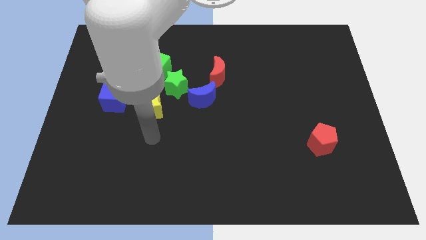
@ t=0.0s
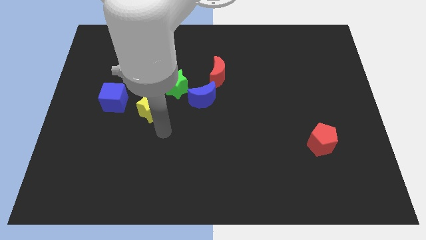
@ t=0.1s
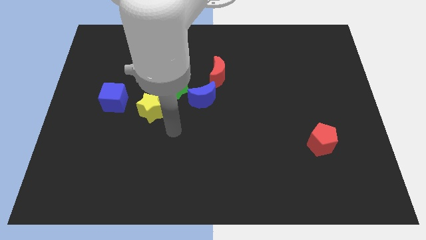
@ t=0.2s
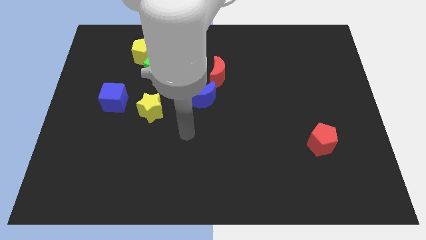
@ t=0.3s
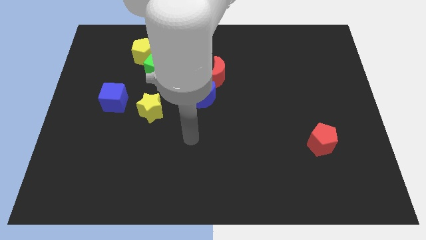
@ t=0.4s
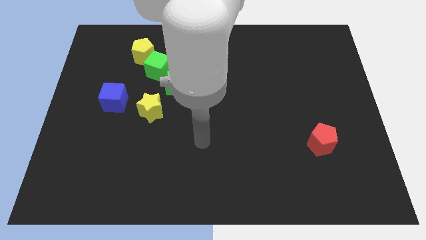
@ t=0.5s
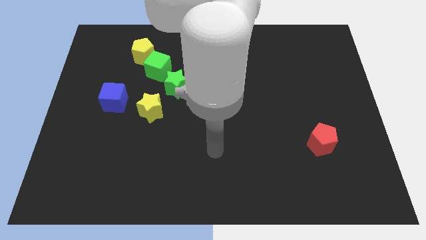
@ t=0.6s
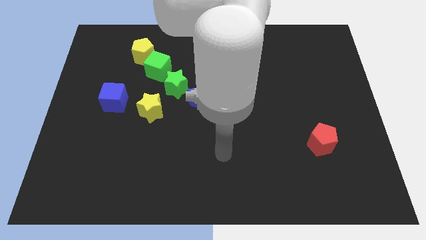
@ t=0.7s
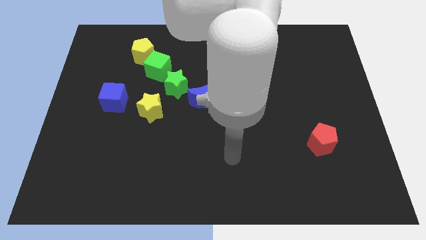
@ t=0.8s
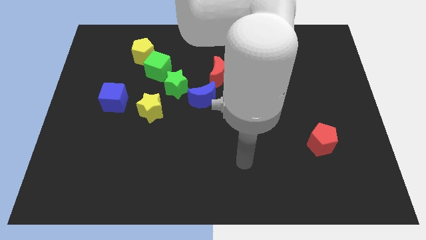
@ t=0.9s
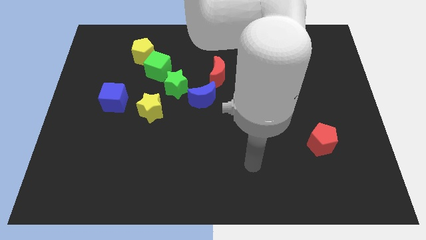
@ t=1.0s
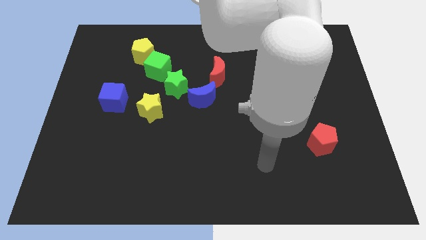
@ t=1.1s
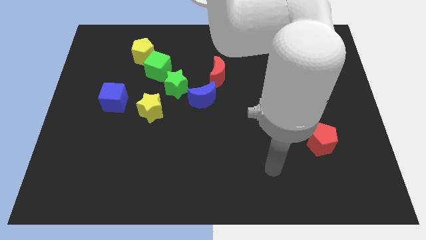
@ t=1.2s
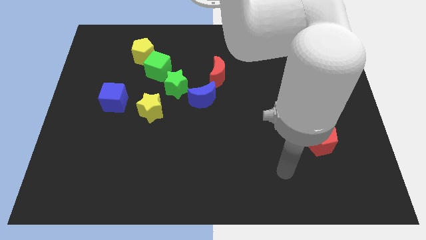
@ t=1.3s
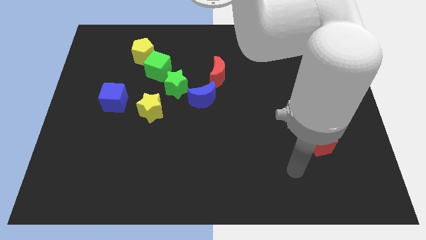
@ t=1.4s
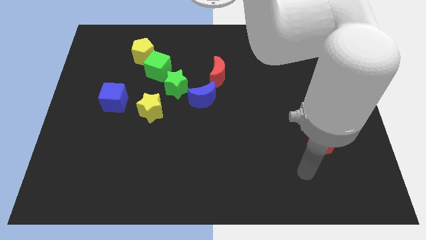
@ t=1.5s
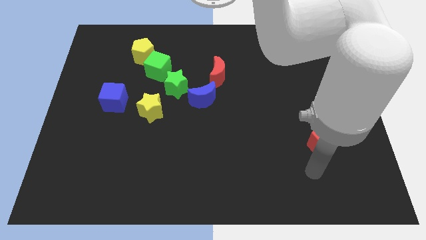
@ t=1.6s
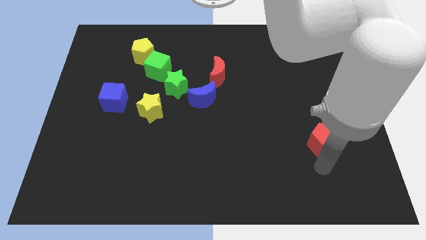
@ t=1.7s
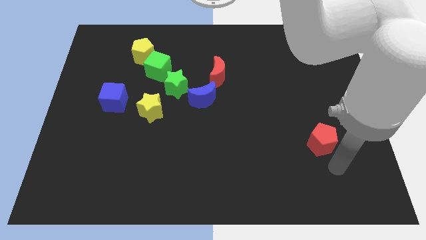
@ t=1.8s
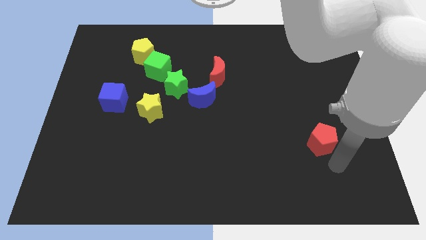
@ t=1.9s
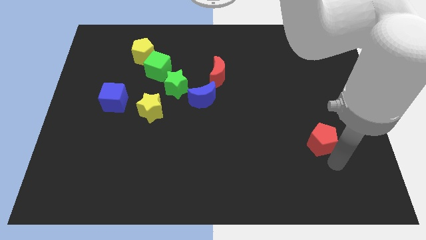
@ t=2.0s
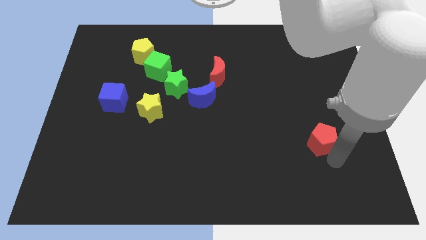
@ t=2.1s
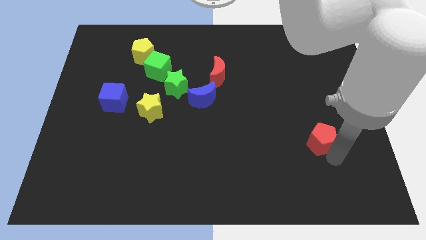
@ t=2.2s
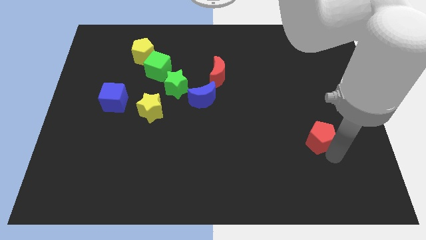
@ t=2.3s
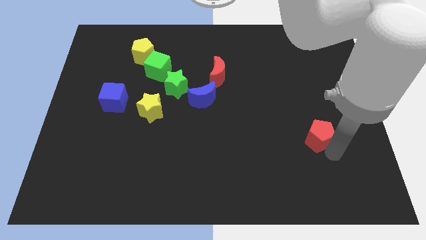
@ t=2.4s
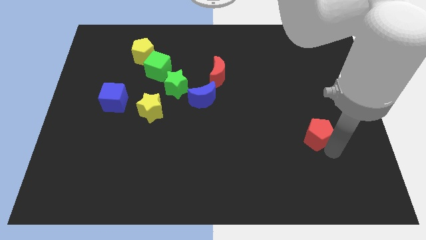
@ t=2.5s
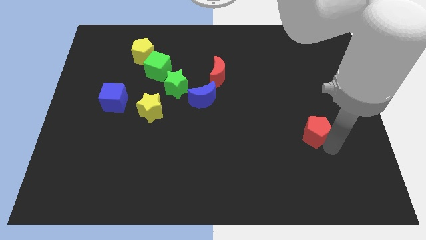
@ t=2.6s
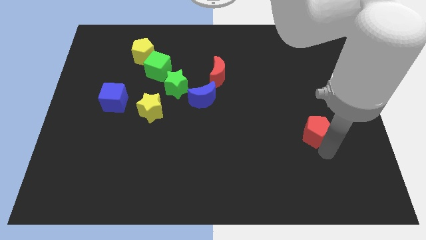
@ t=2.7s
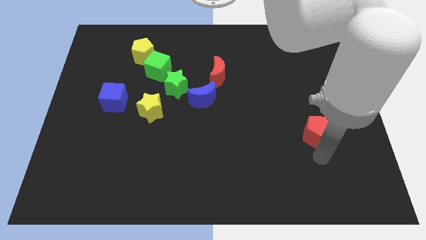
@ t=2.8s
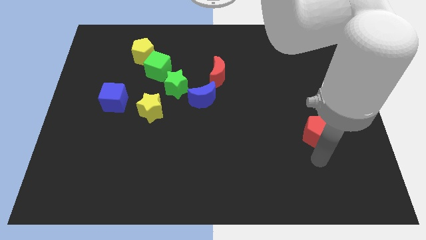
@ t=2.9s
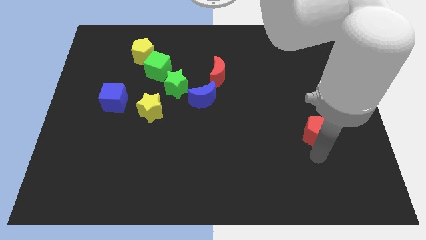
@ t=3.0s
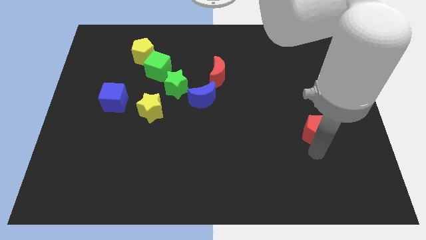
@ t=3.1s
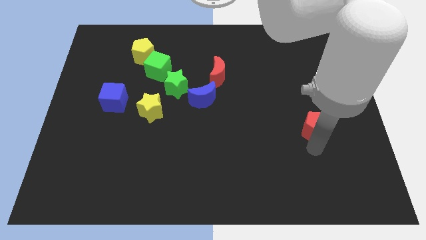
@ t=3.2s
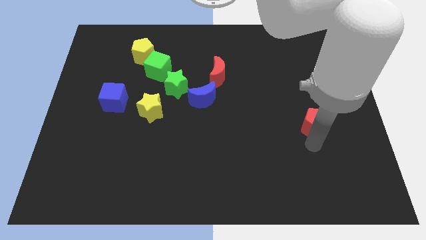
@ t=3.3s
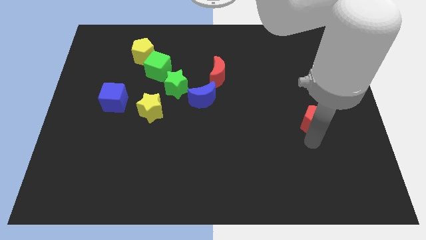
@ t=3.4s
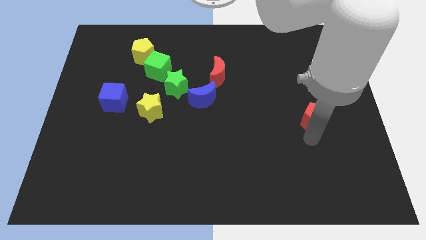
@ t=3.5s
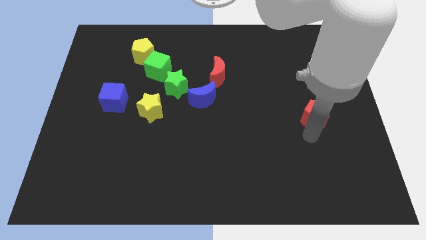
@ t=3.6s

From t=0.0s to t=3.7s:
slightly push the red pentagon up

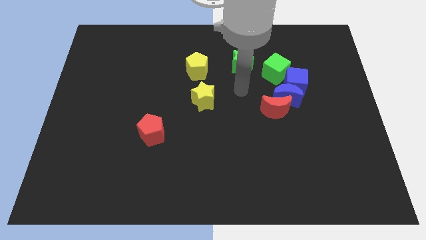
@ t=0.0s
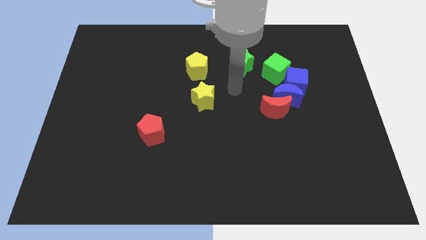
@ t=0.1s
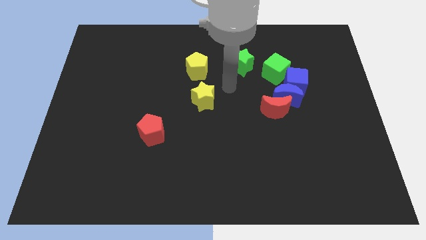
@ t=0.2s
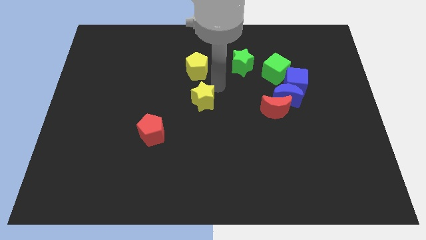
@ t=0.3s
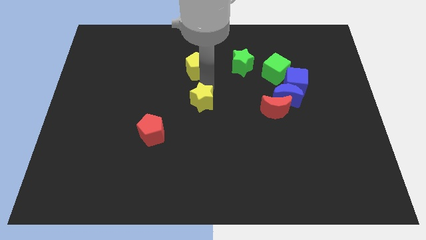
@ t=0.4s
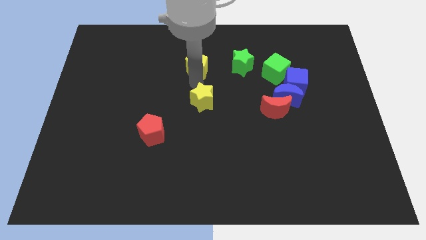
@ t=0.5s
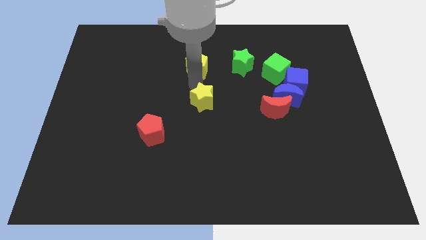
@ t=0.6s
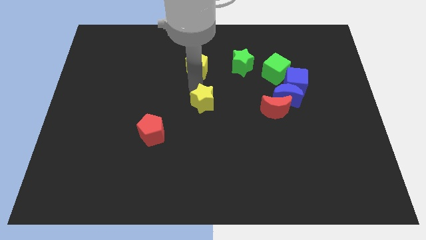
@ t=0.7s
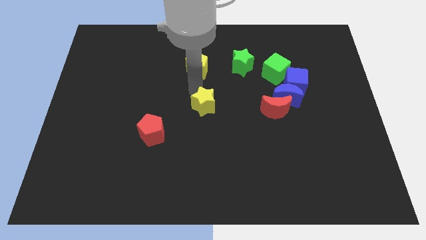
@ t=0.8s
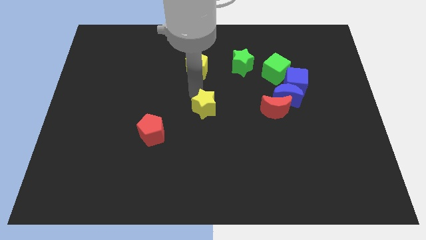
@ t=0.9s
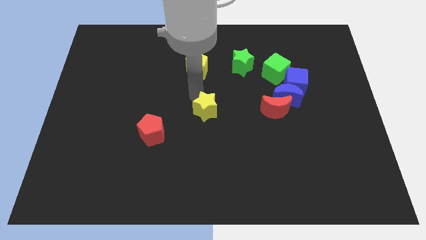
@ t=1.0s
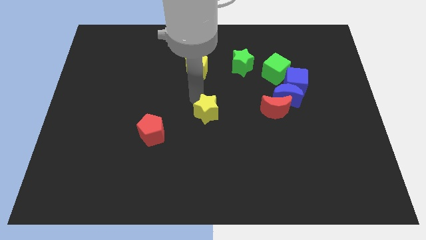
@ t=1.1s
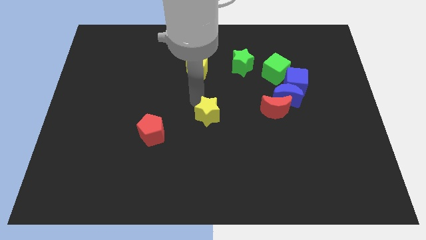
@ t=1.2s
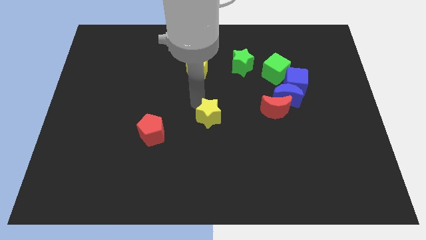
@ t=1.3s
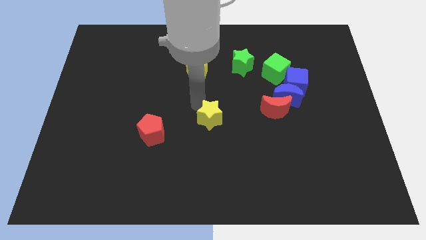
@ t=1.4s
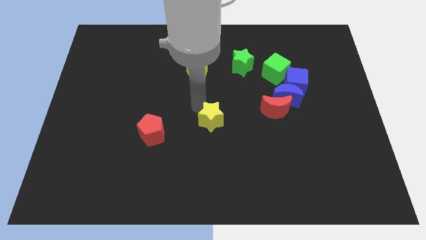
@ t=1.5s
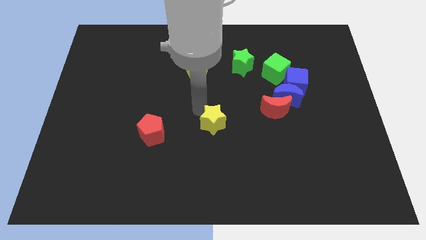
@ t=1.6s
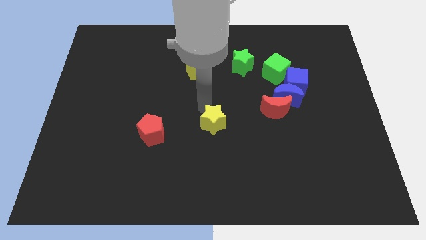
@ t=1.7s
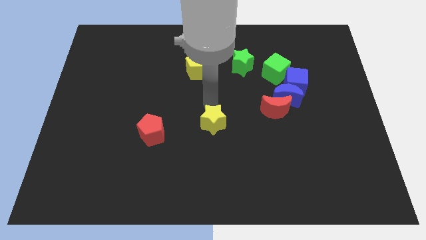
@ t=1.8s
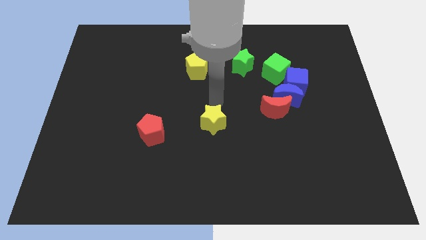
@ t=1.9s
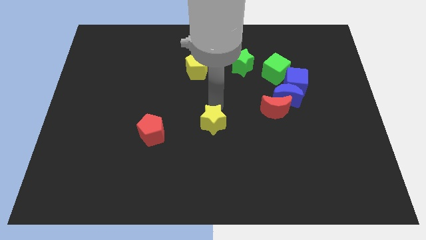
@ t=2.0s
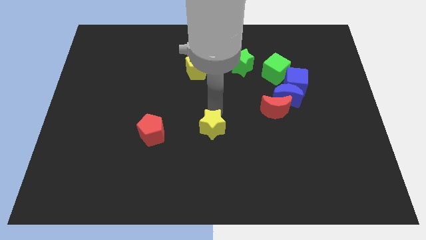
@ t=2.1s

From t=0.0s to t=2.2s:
slightly move the yellow star downwards

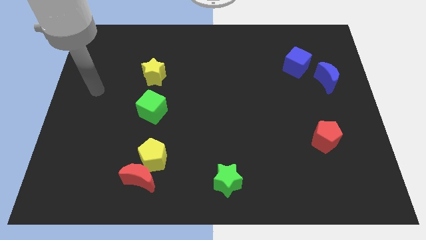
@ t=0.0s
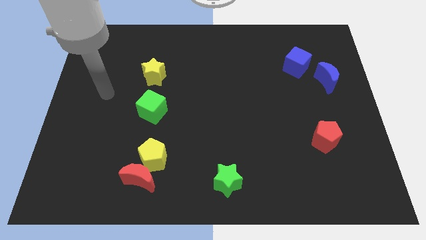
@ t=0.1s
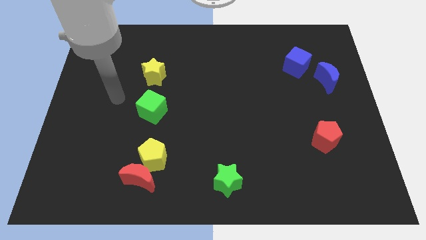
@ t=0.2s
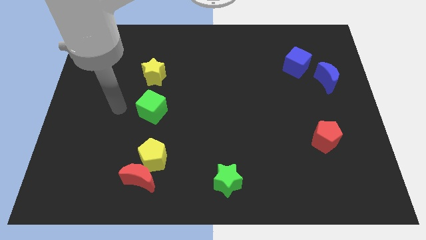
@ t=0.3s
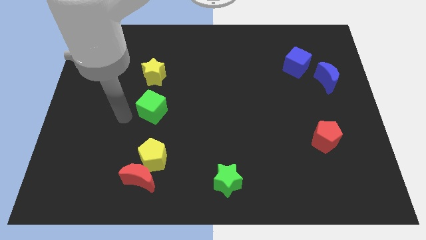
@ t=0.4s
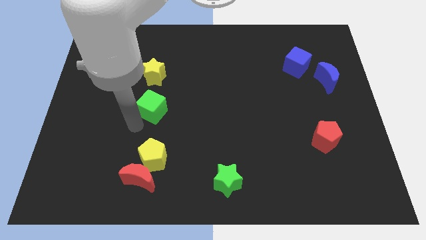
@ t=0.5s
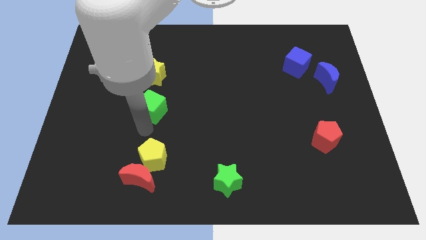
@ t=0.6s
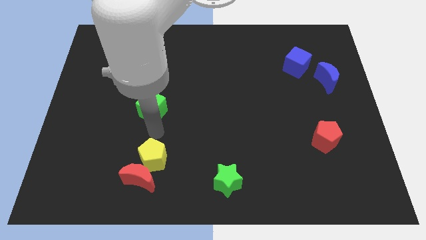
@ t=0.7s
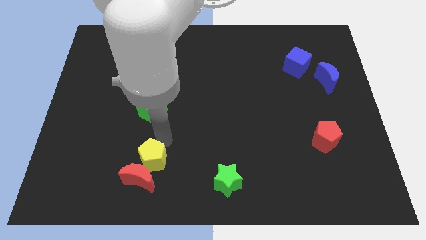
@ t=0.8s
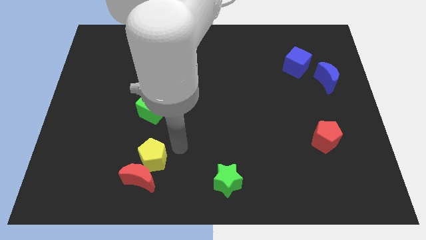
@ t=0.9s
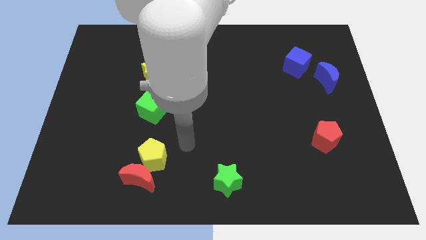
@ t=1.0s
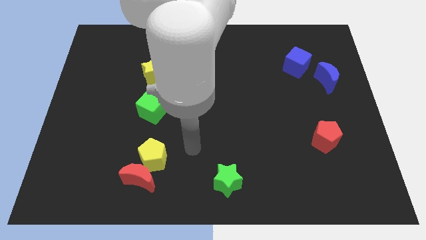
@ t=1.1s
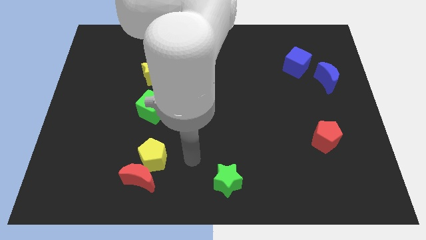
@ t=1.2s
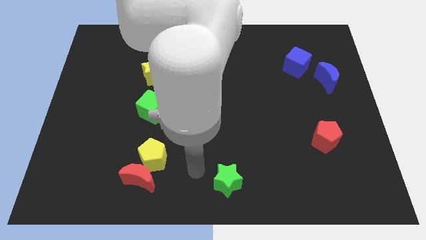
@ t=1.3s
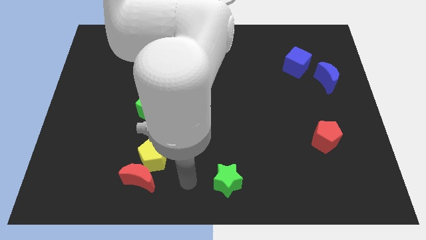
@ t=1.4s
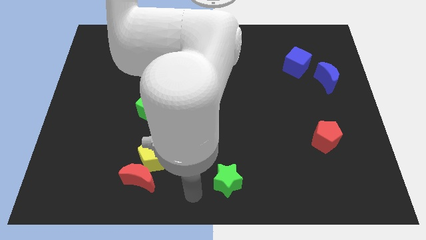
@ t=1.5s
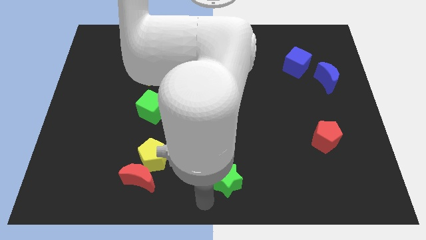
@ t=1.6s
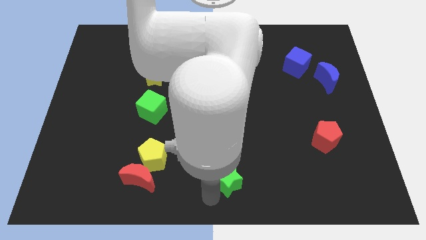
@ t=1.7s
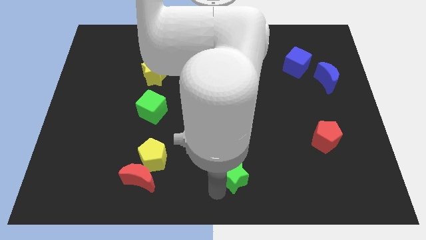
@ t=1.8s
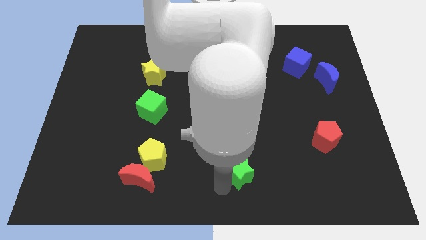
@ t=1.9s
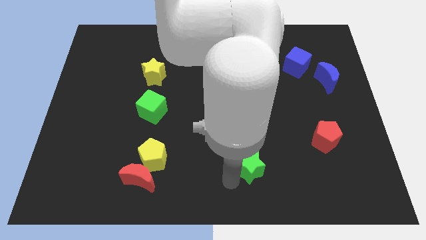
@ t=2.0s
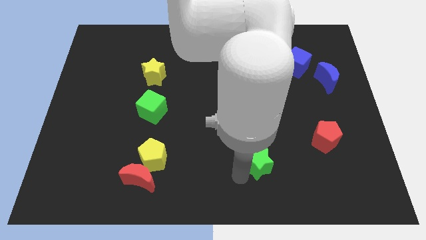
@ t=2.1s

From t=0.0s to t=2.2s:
slide the green star up and then right a little

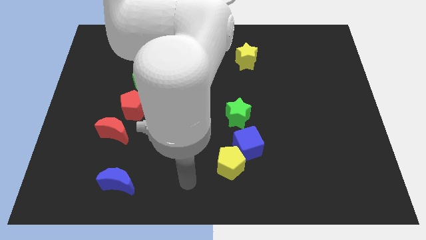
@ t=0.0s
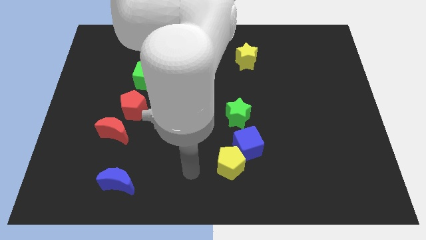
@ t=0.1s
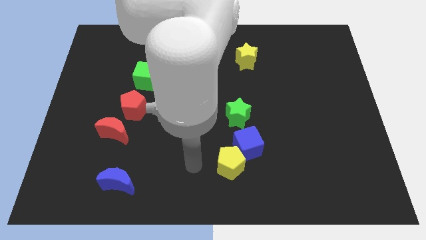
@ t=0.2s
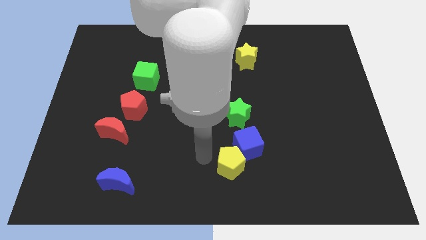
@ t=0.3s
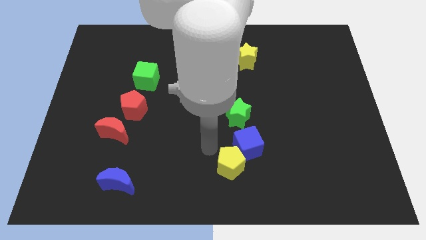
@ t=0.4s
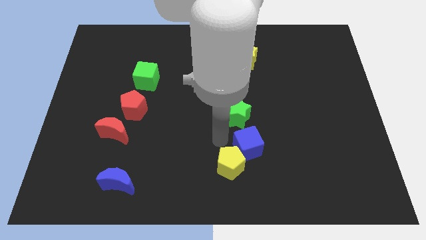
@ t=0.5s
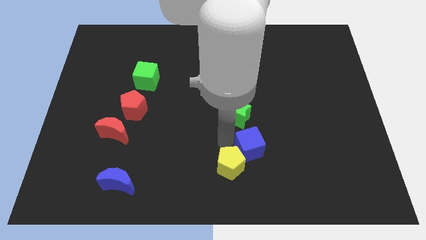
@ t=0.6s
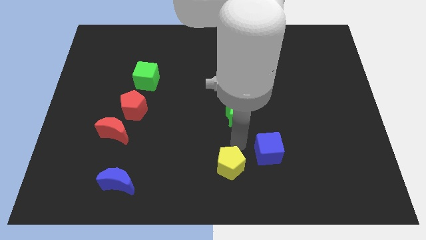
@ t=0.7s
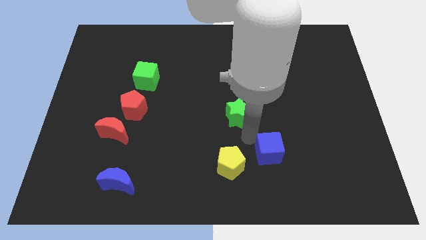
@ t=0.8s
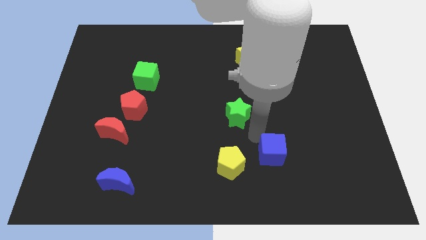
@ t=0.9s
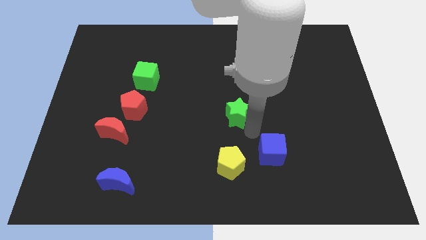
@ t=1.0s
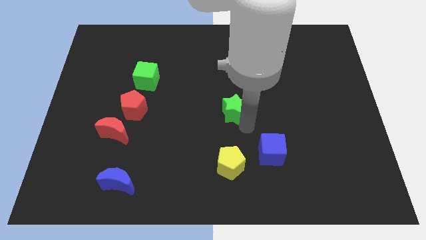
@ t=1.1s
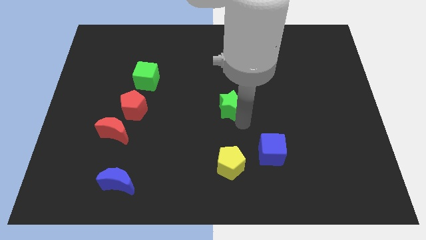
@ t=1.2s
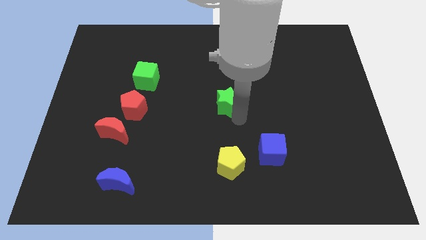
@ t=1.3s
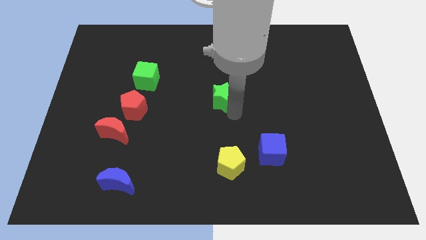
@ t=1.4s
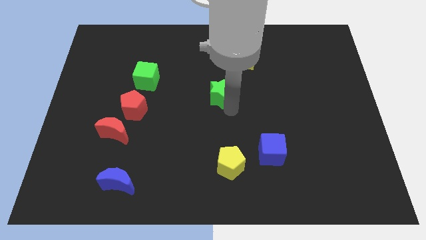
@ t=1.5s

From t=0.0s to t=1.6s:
push the green star somewhat up and then to the left
